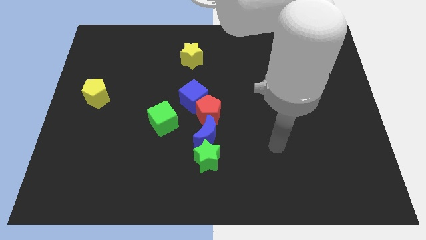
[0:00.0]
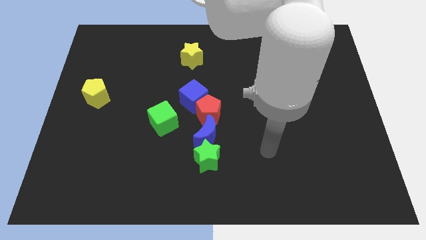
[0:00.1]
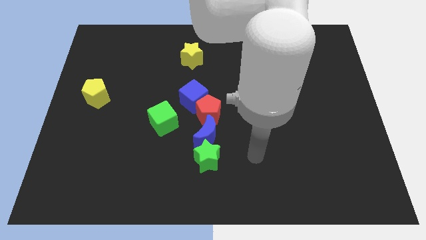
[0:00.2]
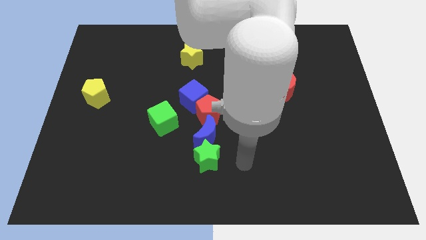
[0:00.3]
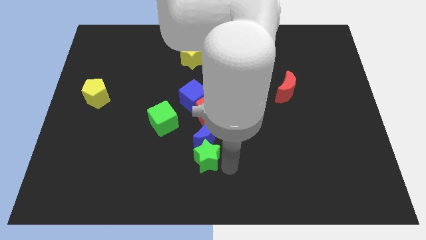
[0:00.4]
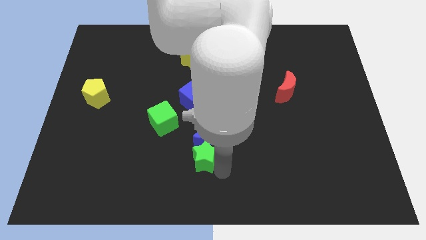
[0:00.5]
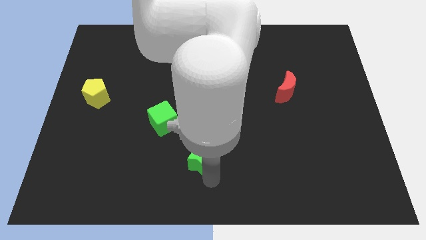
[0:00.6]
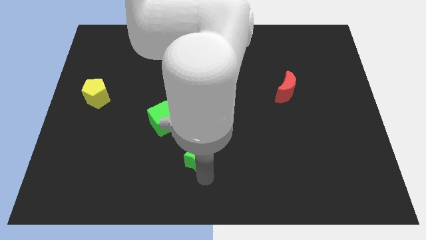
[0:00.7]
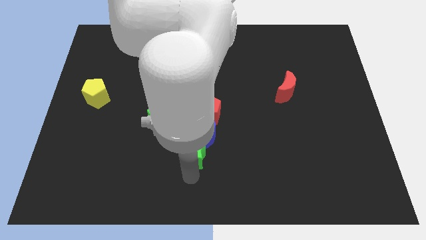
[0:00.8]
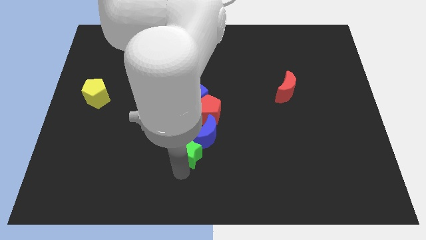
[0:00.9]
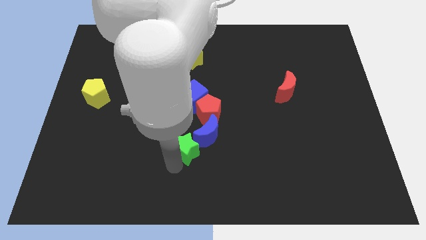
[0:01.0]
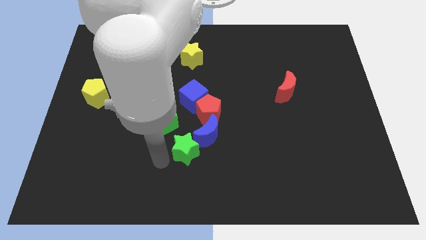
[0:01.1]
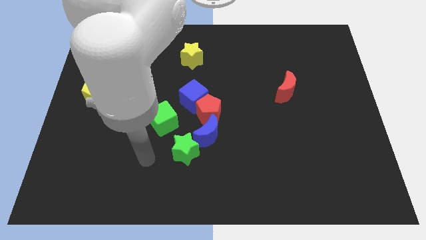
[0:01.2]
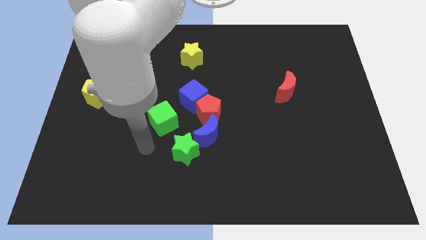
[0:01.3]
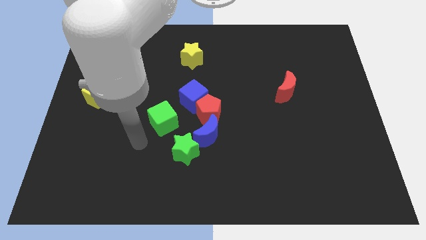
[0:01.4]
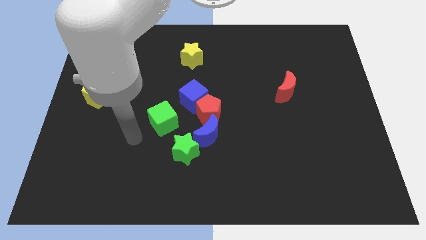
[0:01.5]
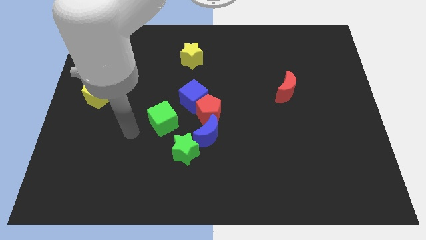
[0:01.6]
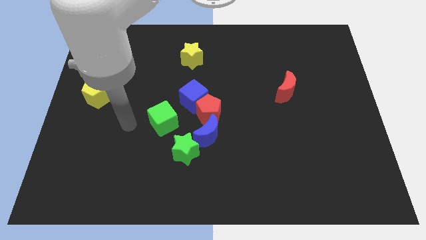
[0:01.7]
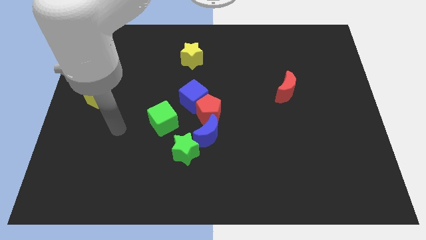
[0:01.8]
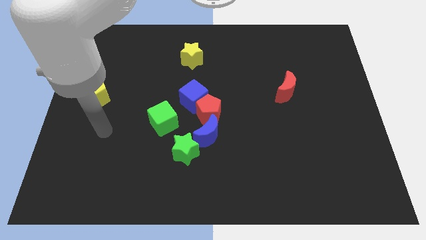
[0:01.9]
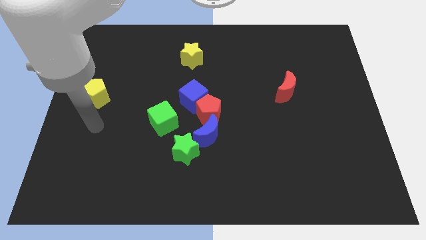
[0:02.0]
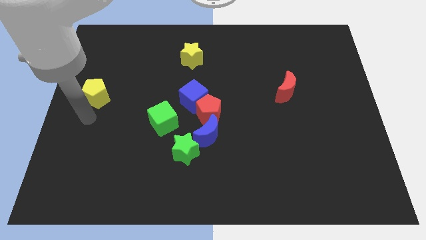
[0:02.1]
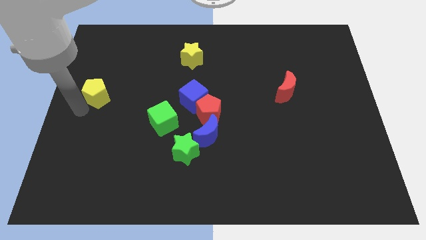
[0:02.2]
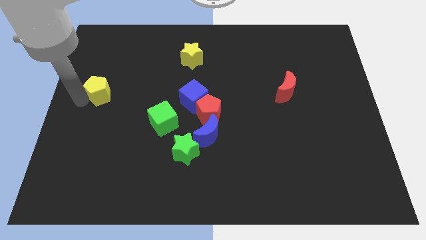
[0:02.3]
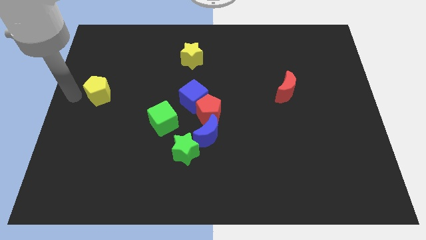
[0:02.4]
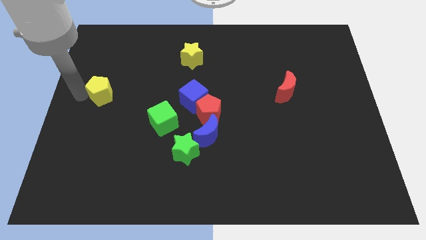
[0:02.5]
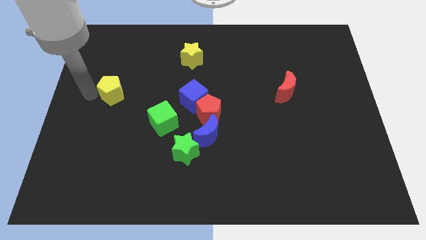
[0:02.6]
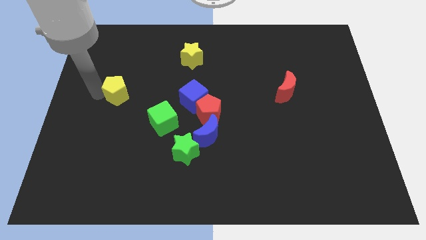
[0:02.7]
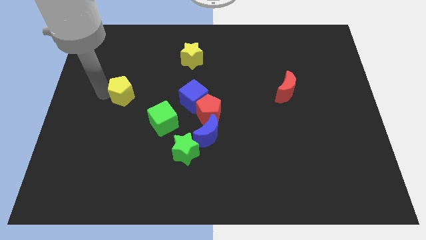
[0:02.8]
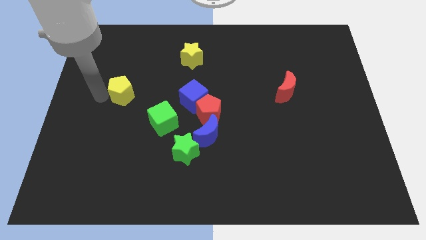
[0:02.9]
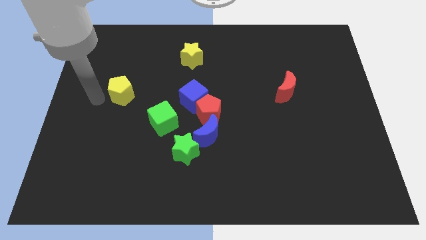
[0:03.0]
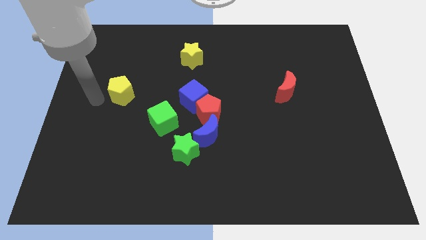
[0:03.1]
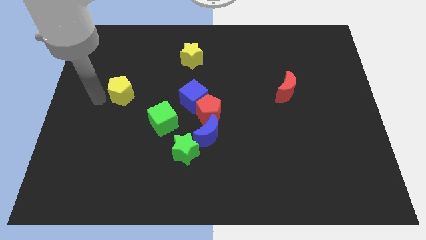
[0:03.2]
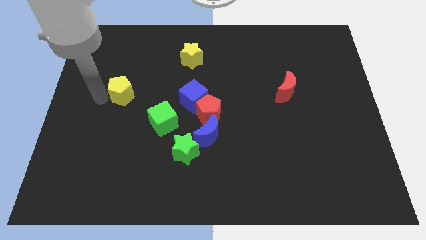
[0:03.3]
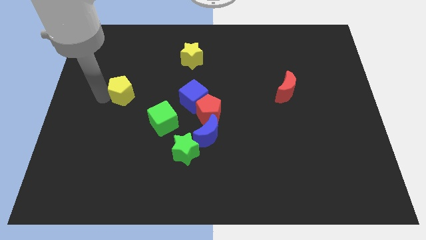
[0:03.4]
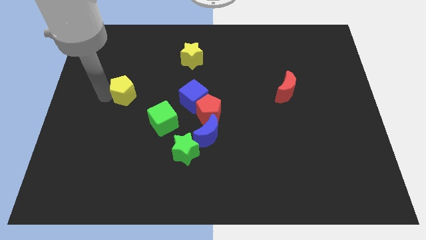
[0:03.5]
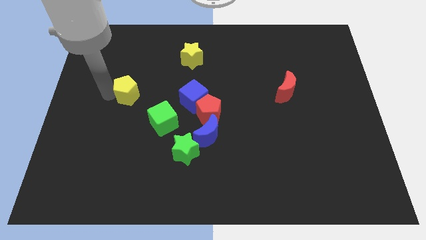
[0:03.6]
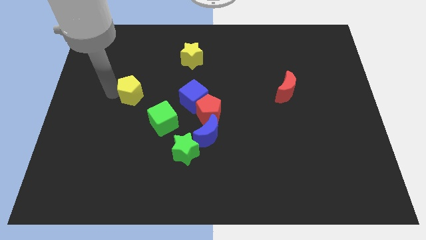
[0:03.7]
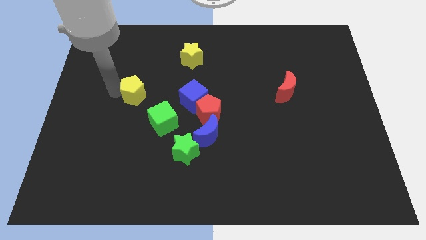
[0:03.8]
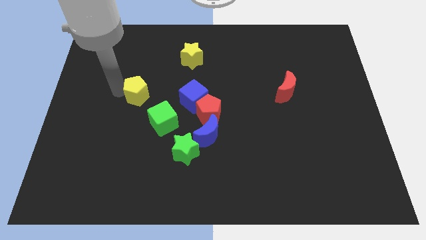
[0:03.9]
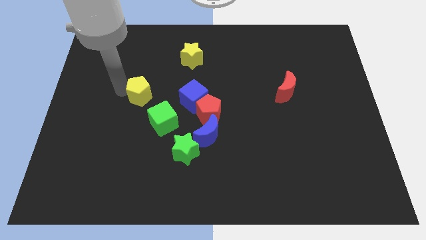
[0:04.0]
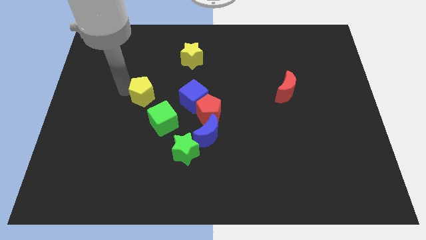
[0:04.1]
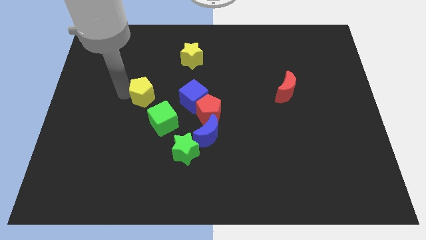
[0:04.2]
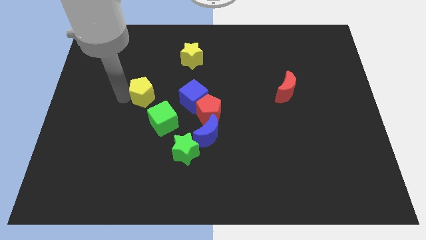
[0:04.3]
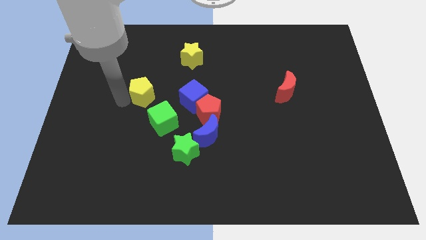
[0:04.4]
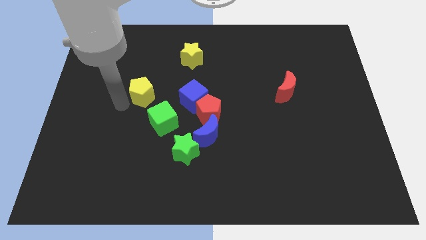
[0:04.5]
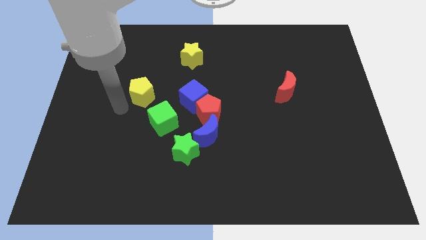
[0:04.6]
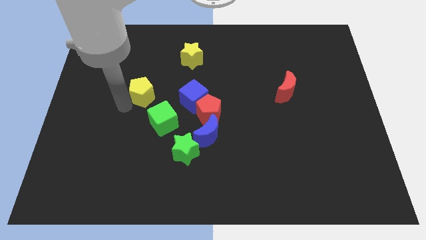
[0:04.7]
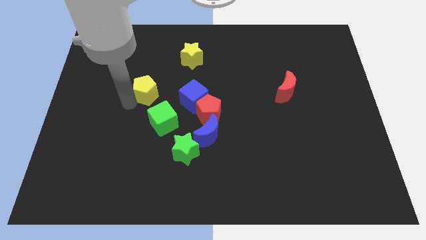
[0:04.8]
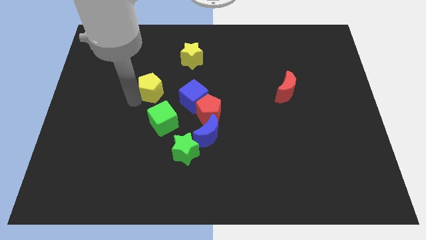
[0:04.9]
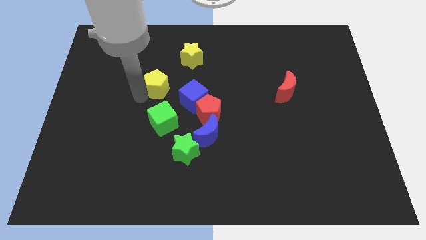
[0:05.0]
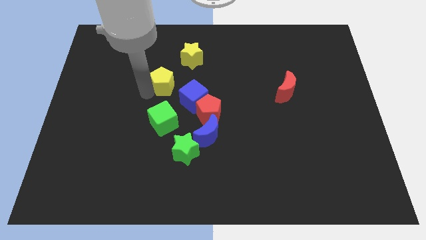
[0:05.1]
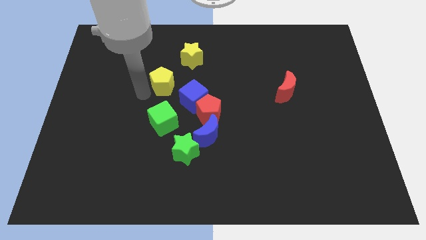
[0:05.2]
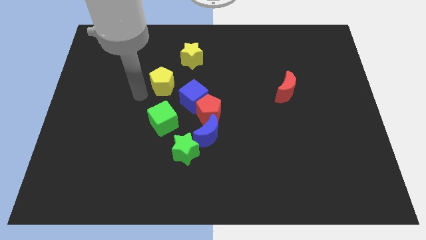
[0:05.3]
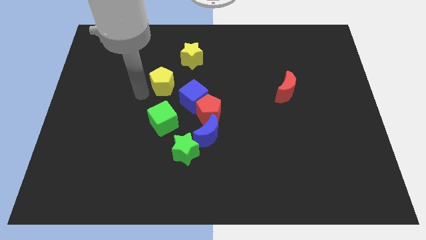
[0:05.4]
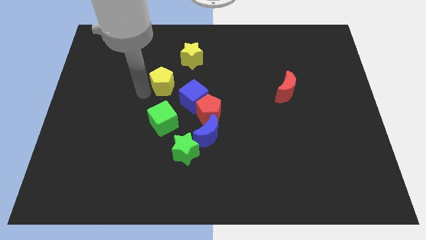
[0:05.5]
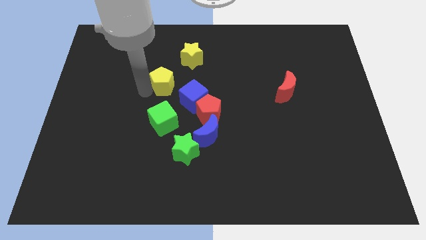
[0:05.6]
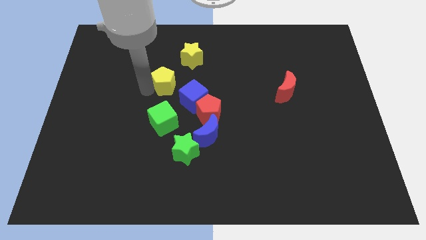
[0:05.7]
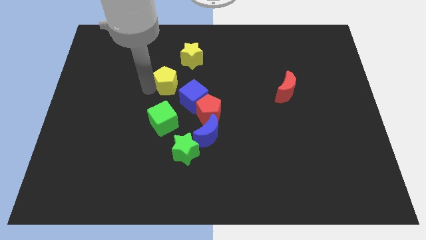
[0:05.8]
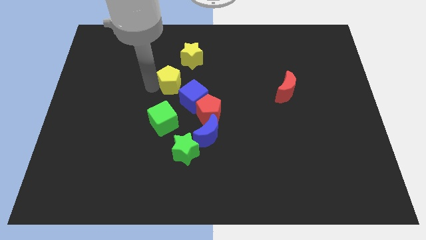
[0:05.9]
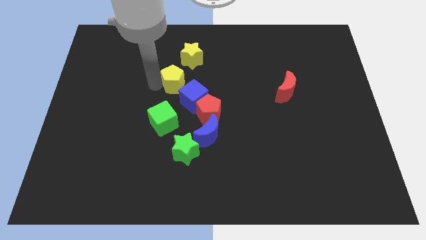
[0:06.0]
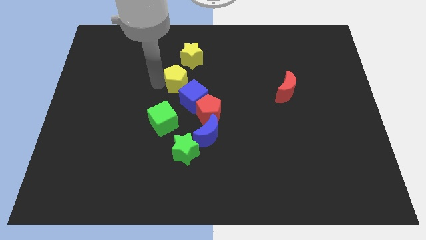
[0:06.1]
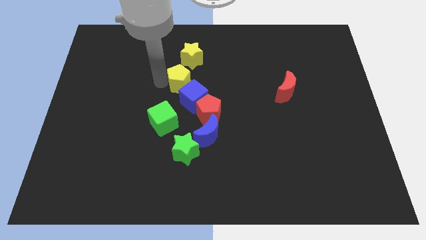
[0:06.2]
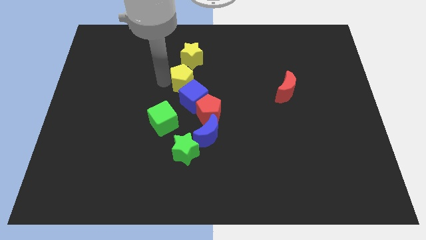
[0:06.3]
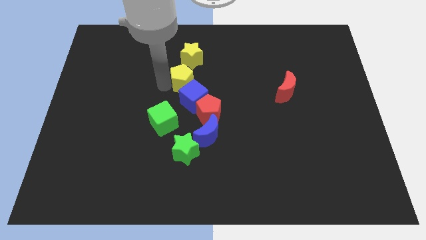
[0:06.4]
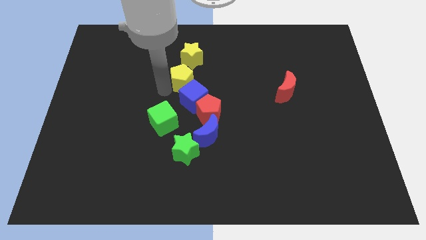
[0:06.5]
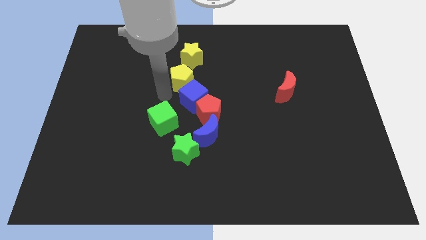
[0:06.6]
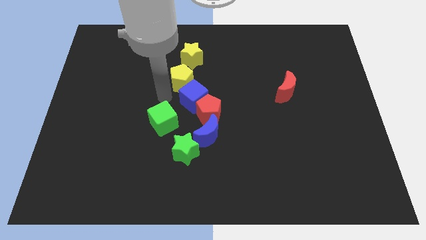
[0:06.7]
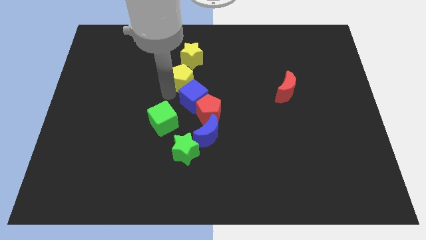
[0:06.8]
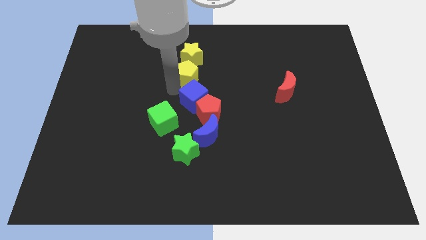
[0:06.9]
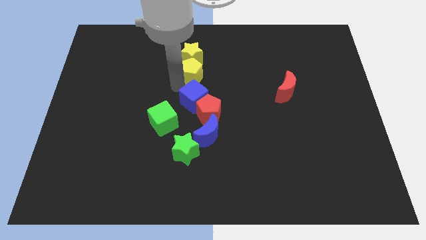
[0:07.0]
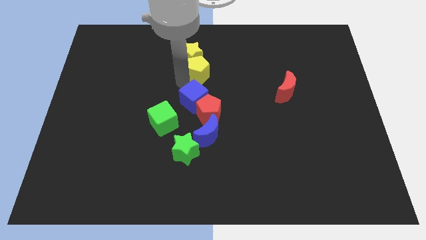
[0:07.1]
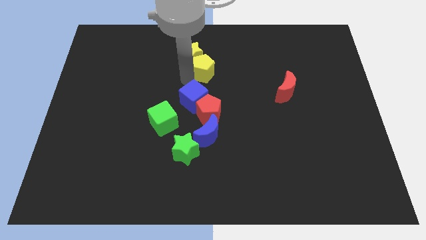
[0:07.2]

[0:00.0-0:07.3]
move the yellow pentagon right of the yellow star

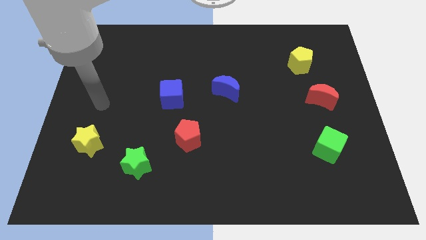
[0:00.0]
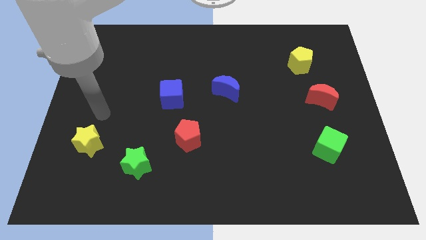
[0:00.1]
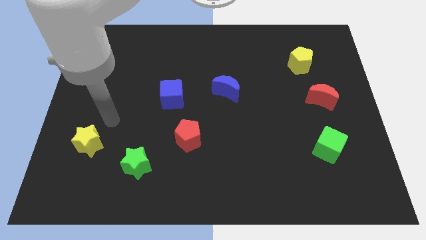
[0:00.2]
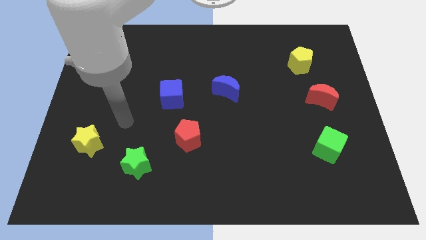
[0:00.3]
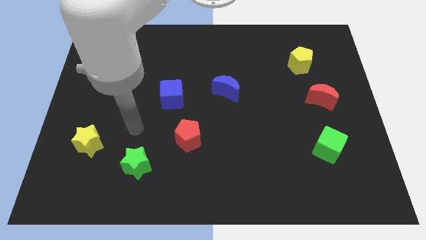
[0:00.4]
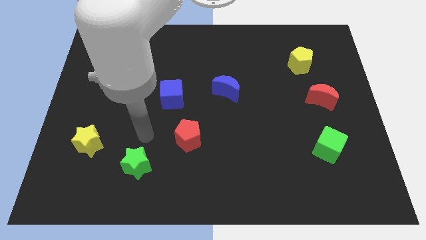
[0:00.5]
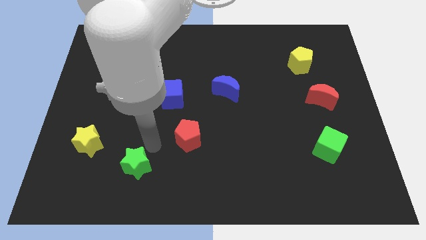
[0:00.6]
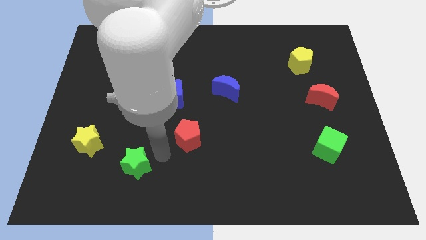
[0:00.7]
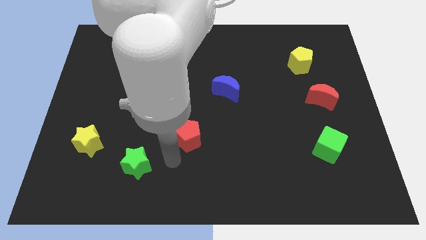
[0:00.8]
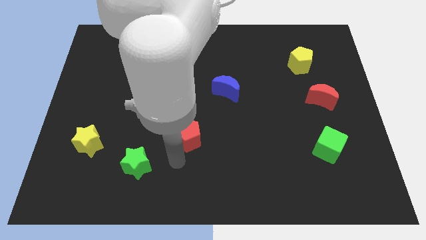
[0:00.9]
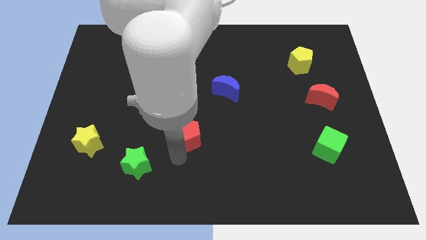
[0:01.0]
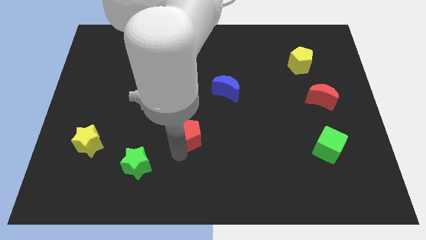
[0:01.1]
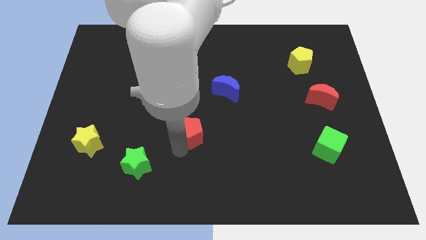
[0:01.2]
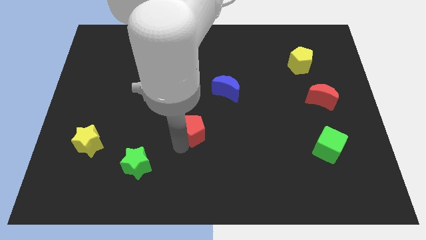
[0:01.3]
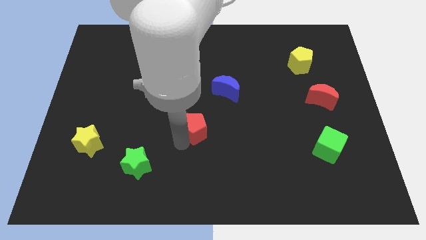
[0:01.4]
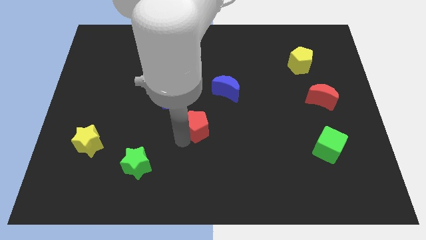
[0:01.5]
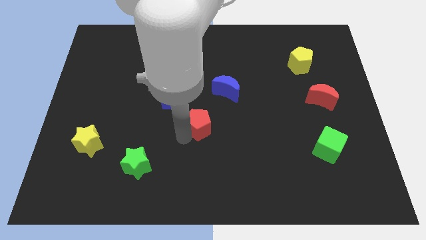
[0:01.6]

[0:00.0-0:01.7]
put the red pentagon to the bottom left of the blue moon
